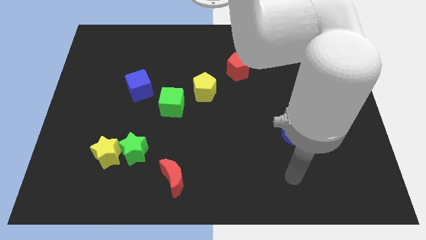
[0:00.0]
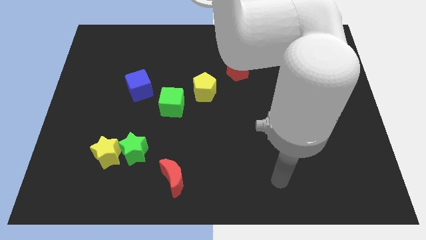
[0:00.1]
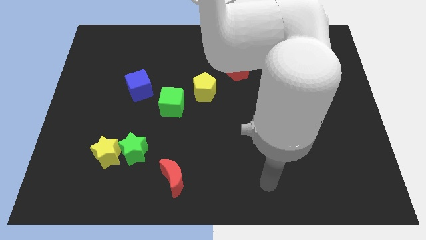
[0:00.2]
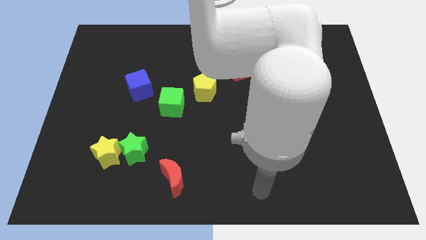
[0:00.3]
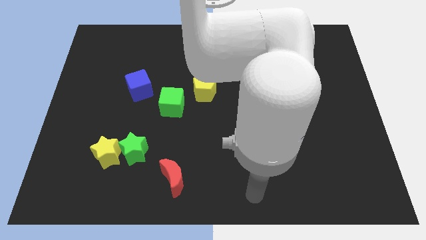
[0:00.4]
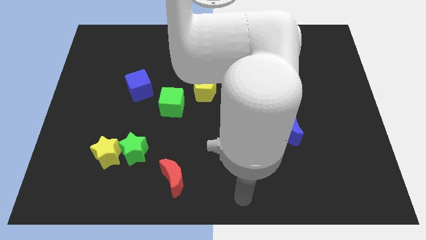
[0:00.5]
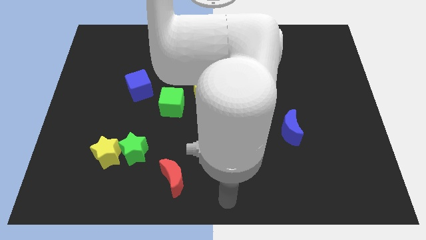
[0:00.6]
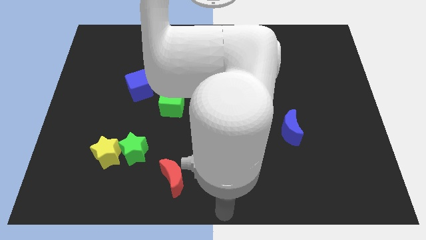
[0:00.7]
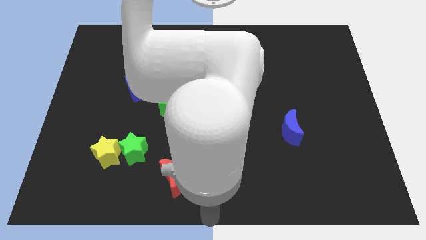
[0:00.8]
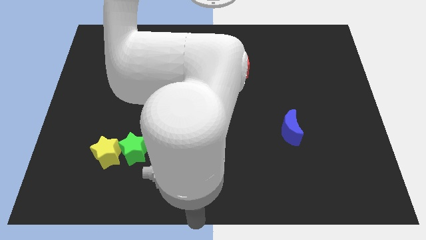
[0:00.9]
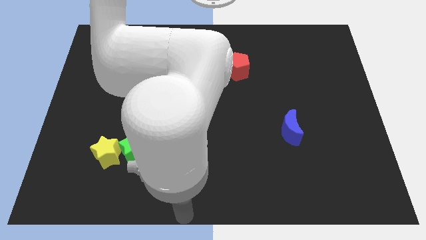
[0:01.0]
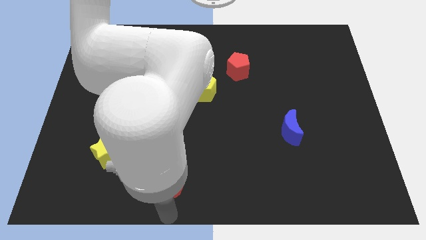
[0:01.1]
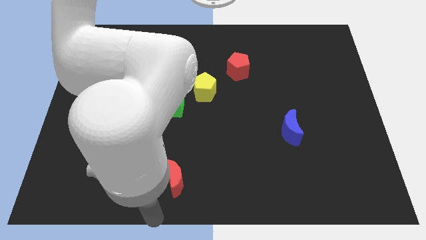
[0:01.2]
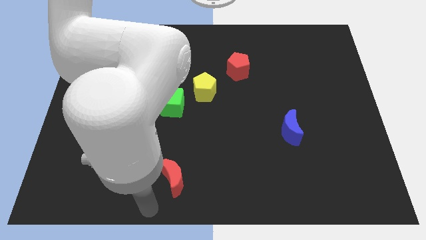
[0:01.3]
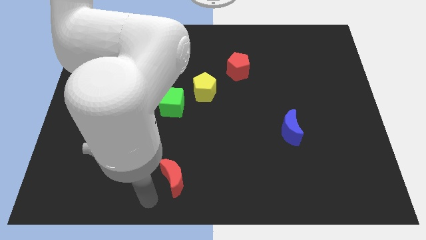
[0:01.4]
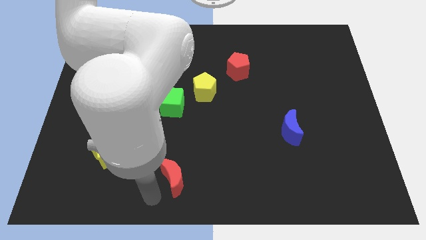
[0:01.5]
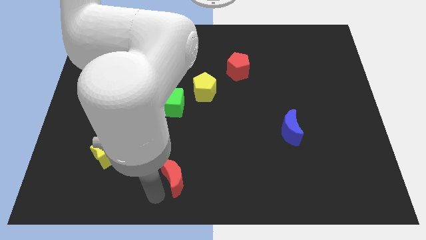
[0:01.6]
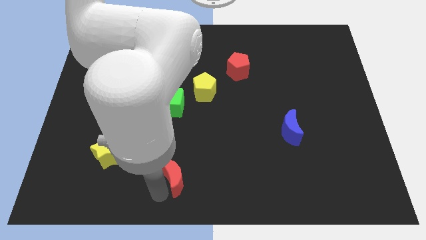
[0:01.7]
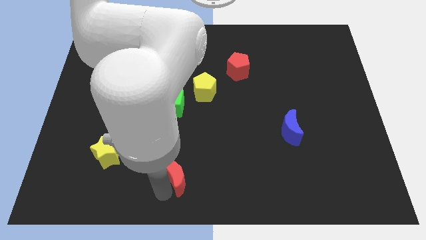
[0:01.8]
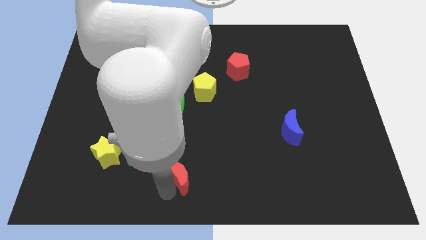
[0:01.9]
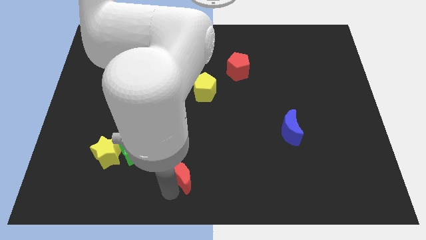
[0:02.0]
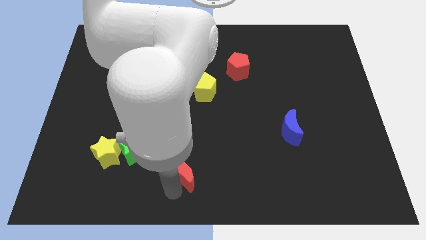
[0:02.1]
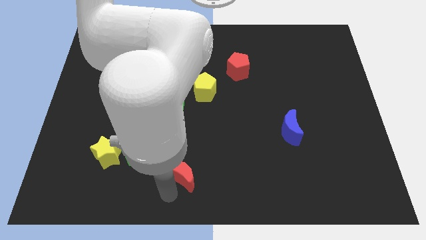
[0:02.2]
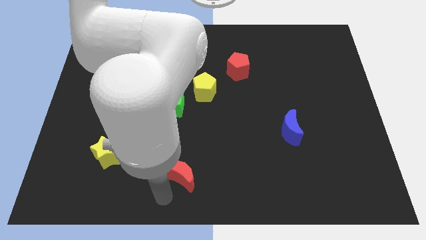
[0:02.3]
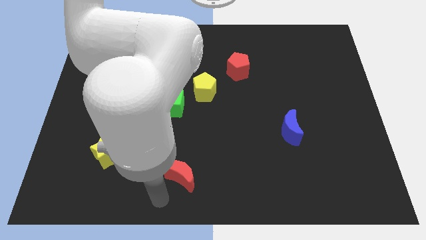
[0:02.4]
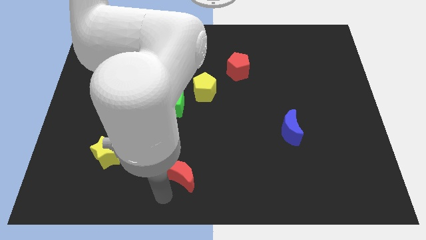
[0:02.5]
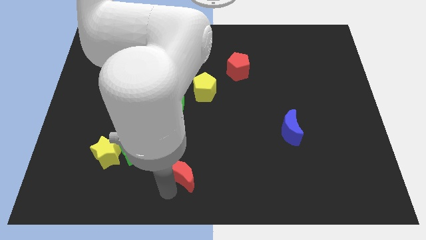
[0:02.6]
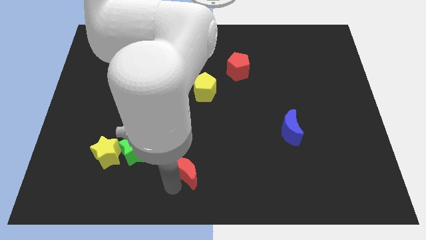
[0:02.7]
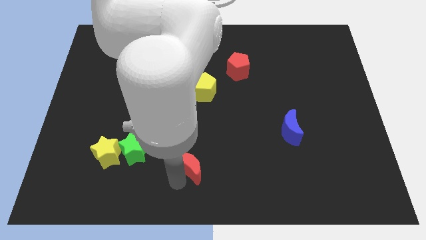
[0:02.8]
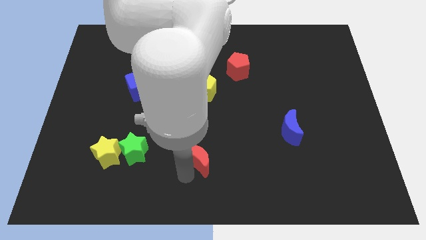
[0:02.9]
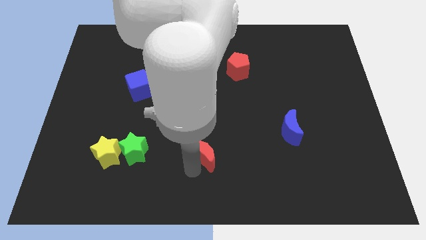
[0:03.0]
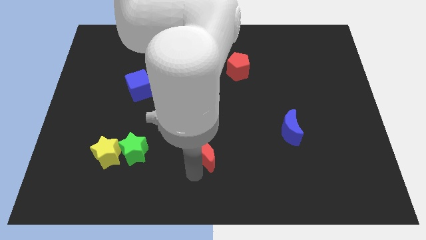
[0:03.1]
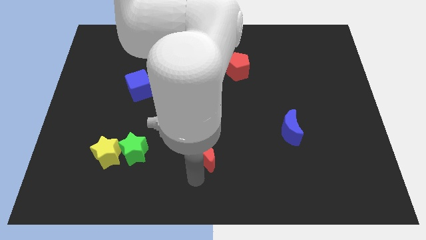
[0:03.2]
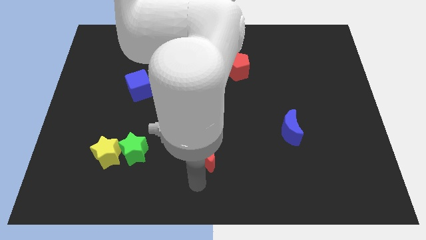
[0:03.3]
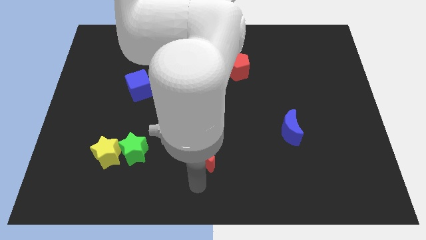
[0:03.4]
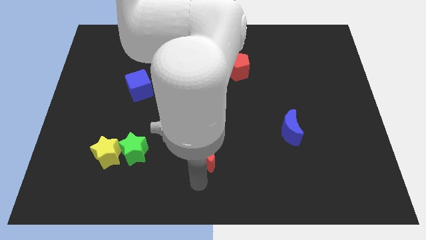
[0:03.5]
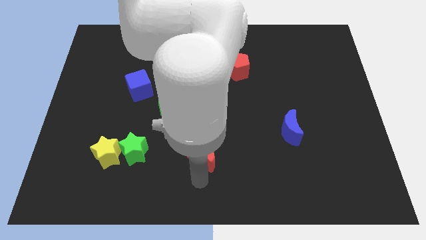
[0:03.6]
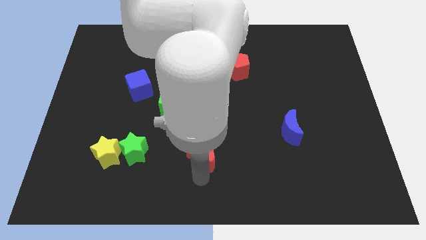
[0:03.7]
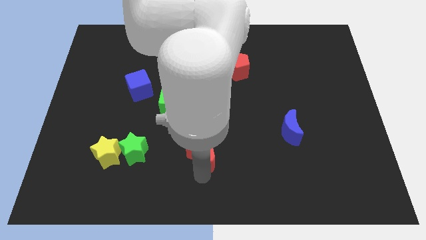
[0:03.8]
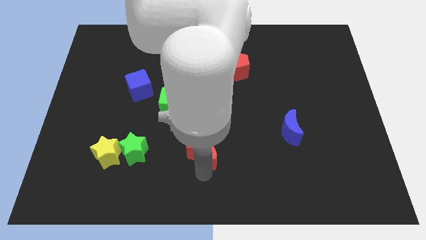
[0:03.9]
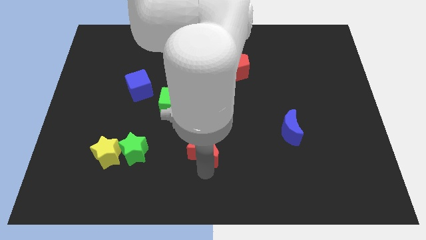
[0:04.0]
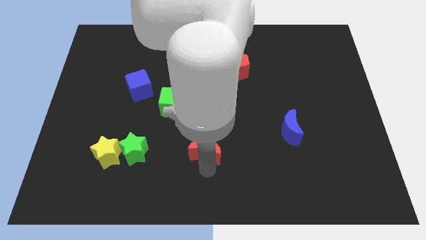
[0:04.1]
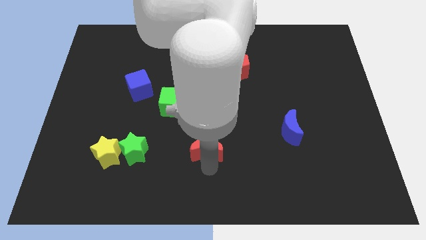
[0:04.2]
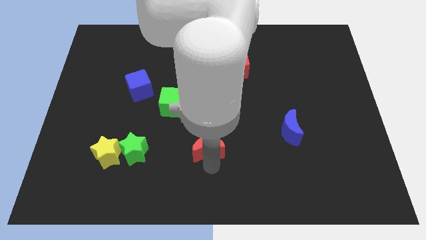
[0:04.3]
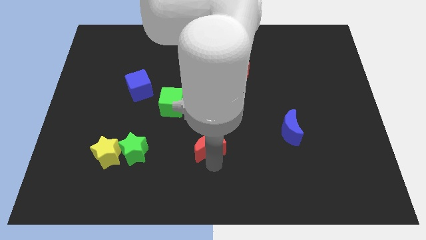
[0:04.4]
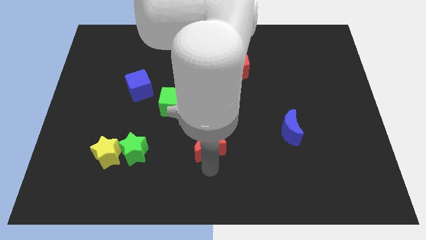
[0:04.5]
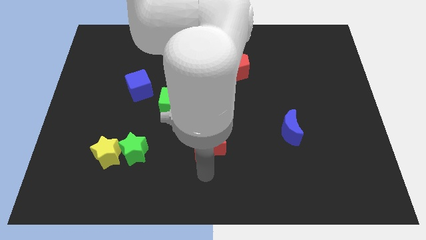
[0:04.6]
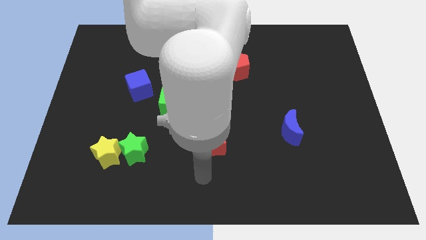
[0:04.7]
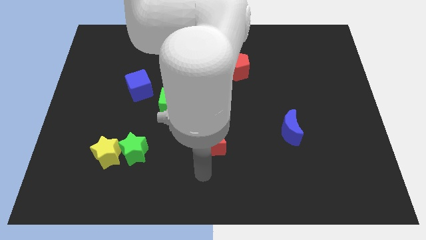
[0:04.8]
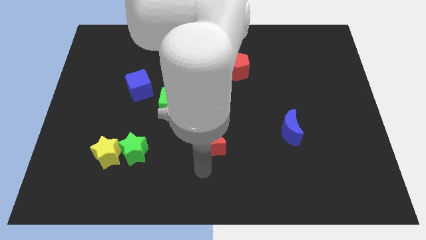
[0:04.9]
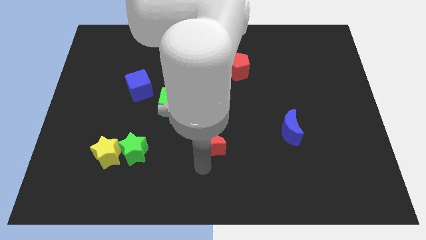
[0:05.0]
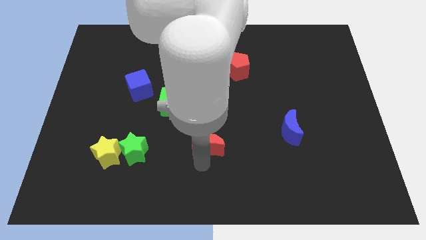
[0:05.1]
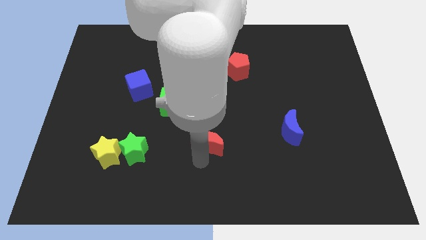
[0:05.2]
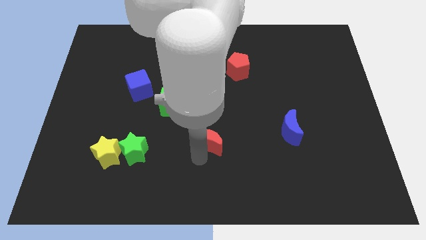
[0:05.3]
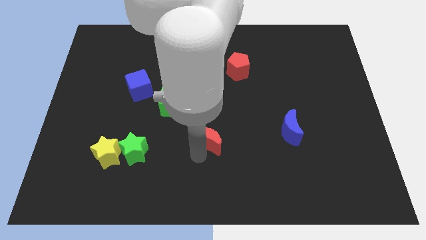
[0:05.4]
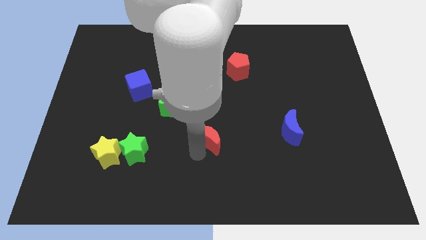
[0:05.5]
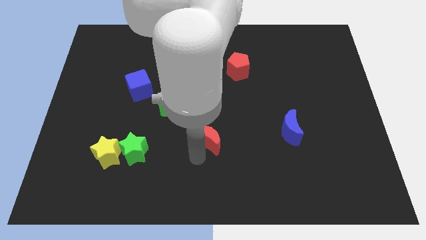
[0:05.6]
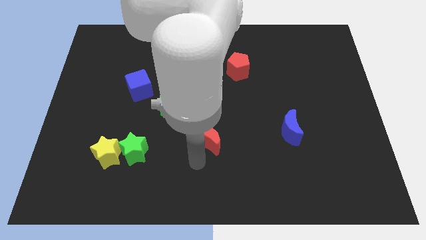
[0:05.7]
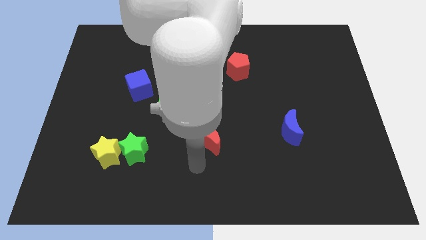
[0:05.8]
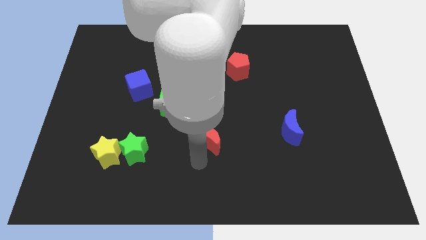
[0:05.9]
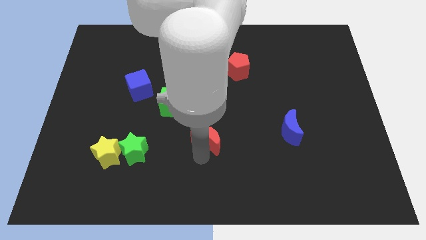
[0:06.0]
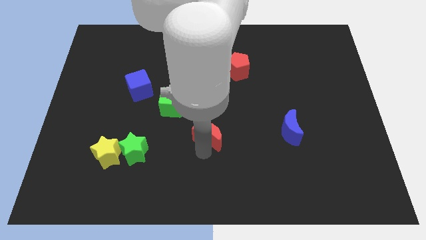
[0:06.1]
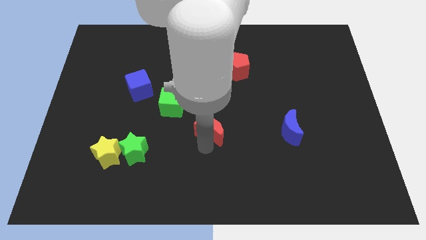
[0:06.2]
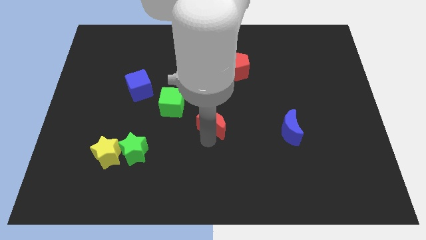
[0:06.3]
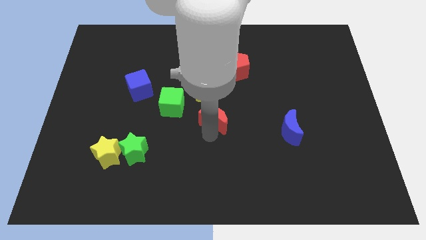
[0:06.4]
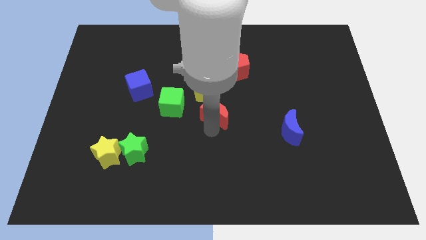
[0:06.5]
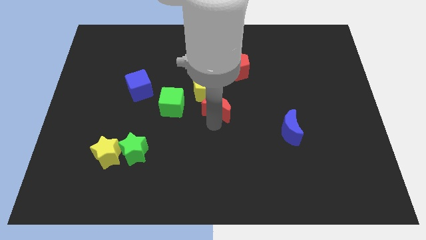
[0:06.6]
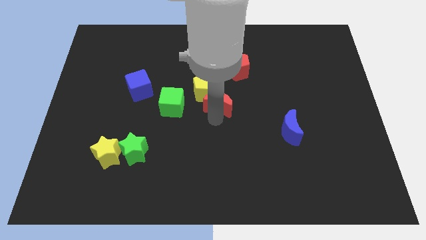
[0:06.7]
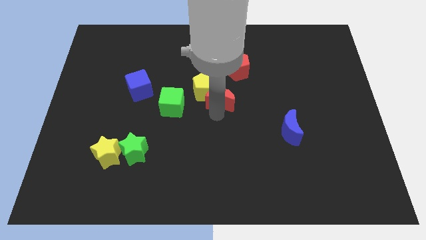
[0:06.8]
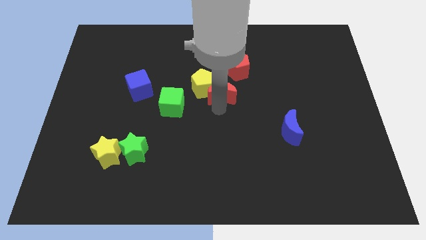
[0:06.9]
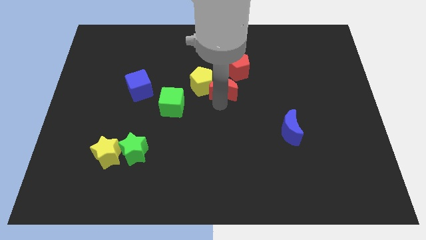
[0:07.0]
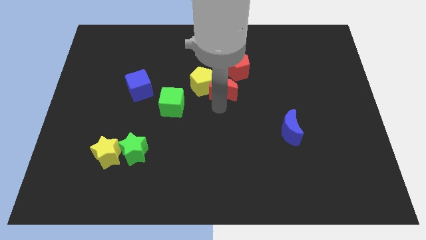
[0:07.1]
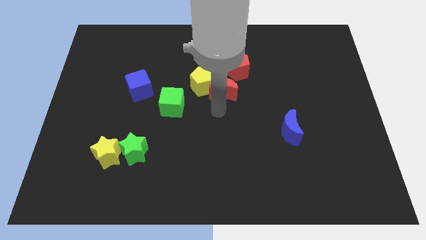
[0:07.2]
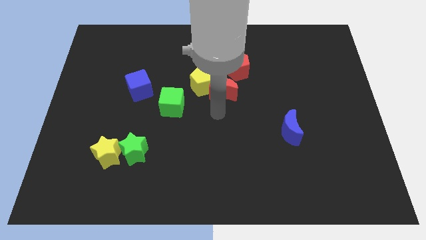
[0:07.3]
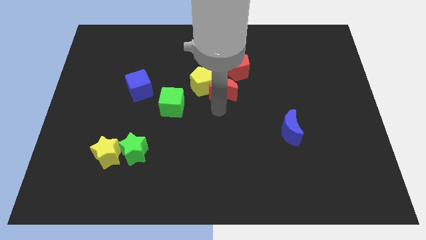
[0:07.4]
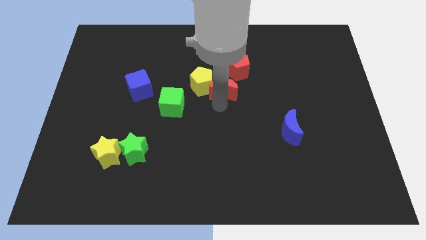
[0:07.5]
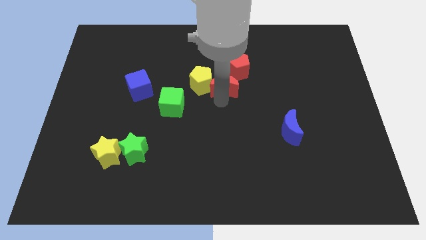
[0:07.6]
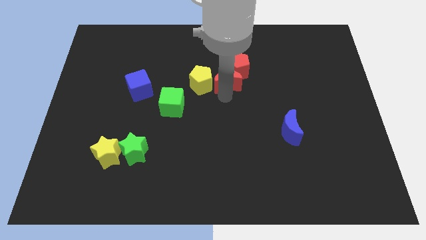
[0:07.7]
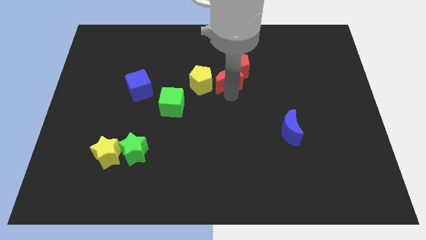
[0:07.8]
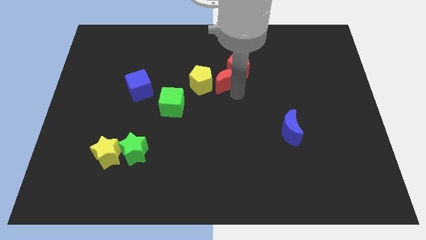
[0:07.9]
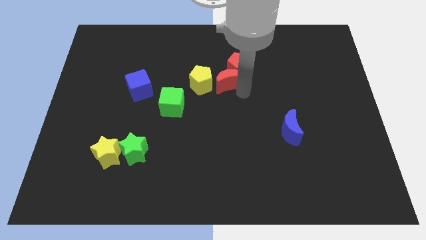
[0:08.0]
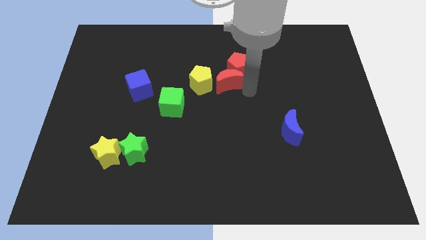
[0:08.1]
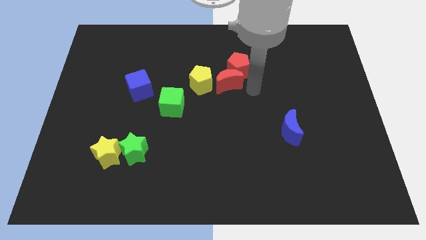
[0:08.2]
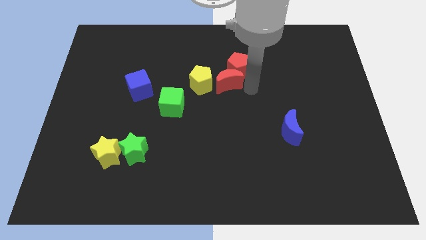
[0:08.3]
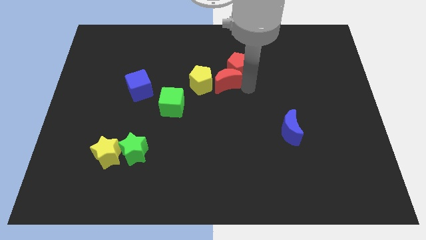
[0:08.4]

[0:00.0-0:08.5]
push the red moon up
